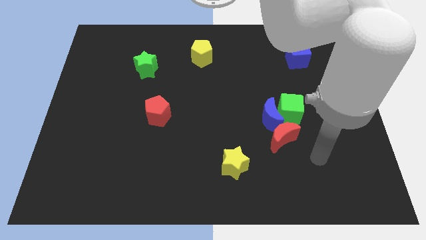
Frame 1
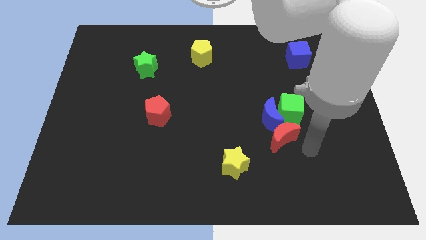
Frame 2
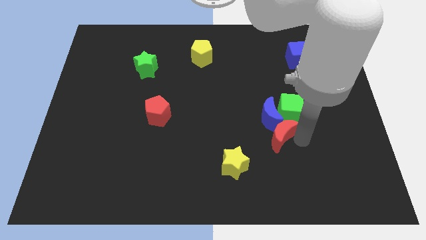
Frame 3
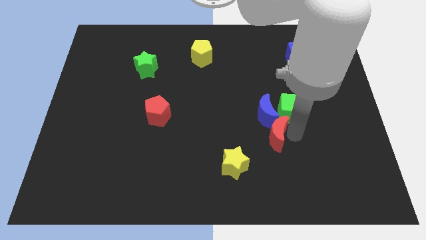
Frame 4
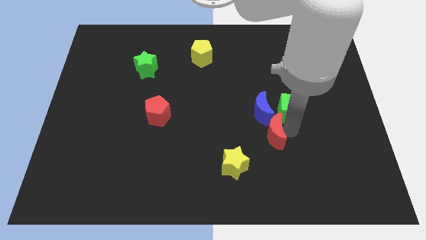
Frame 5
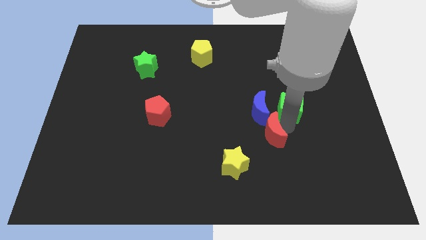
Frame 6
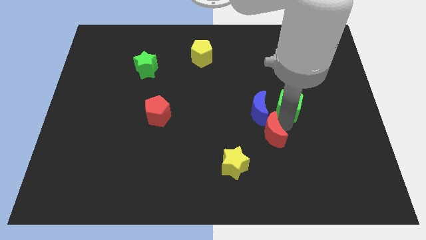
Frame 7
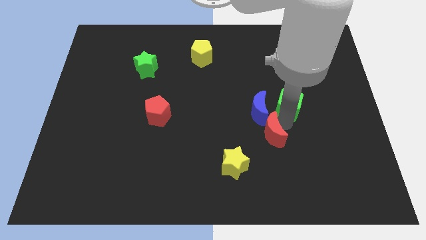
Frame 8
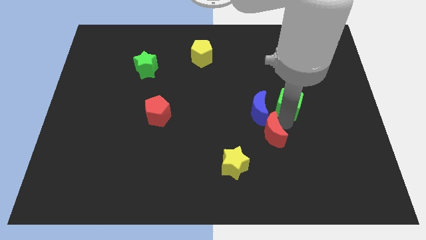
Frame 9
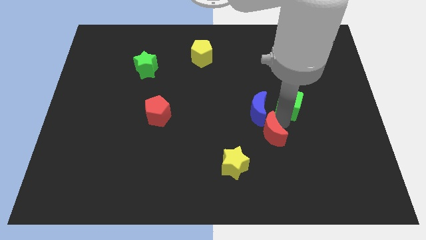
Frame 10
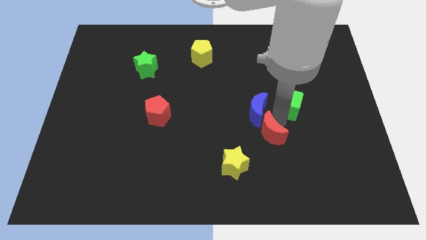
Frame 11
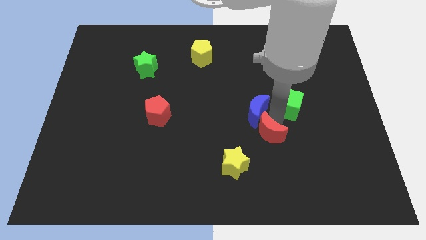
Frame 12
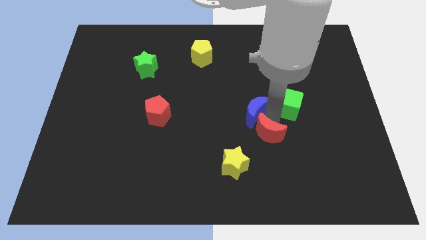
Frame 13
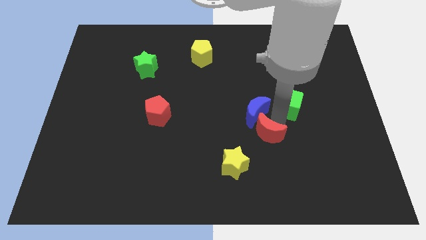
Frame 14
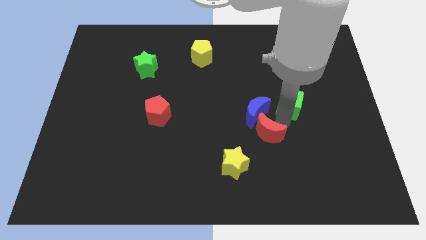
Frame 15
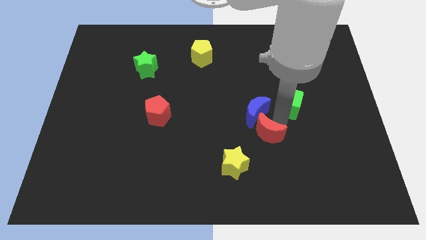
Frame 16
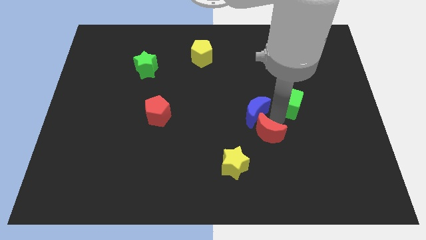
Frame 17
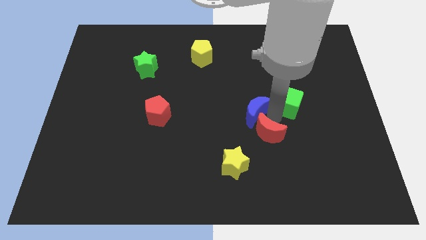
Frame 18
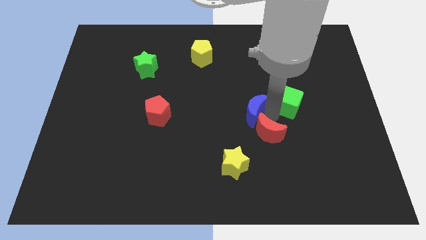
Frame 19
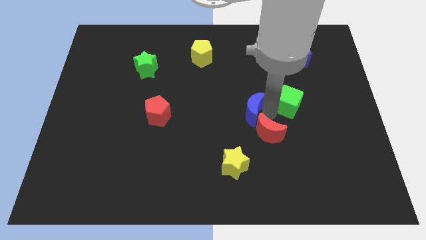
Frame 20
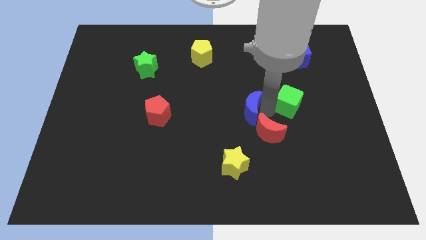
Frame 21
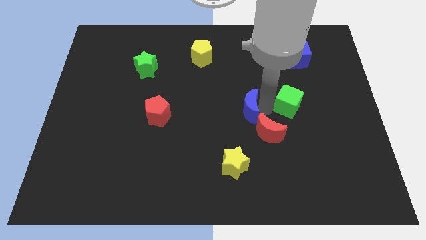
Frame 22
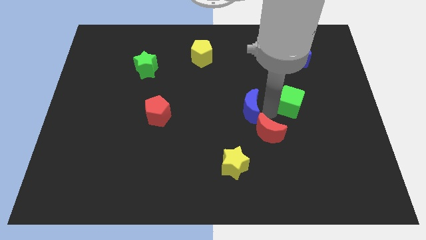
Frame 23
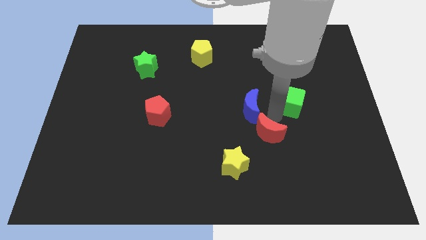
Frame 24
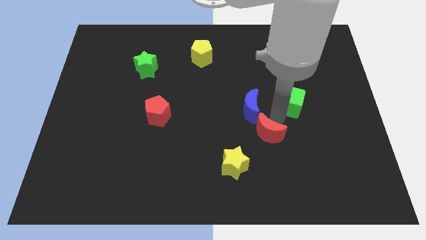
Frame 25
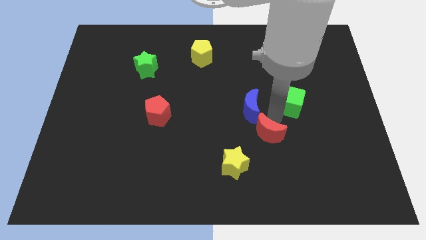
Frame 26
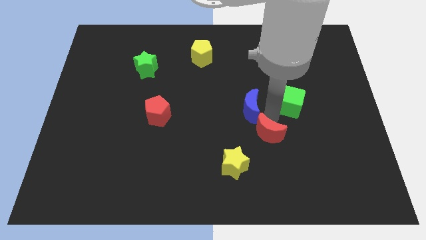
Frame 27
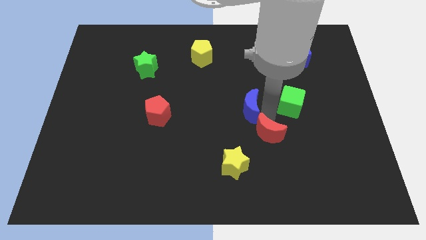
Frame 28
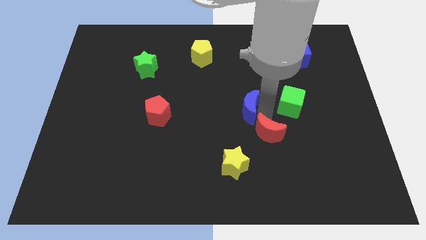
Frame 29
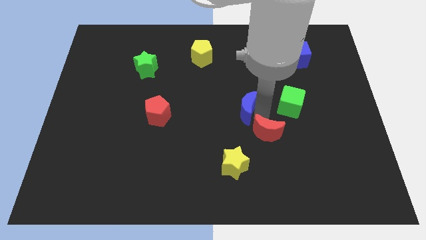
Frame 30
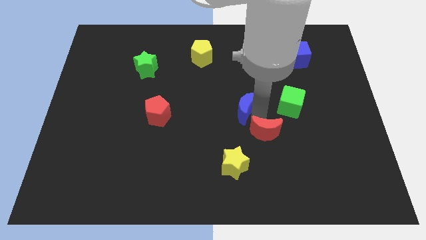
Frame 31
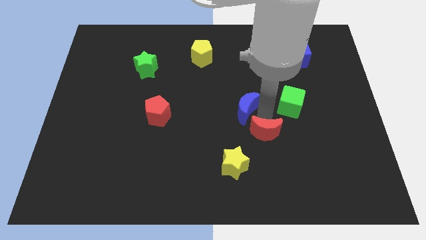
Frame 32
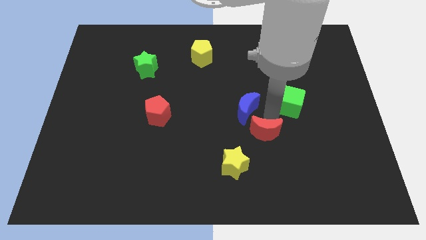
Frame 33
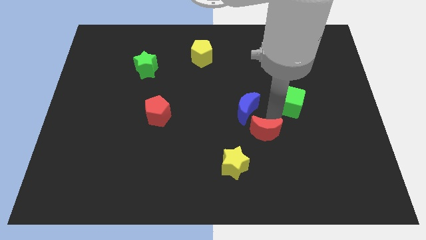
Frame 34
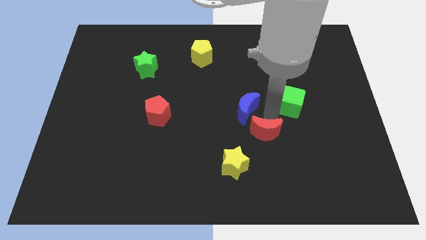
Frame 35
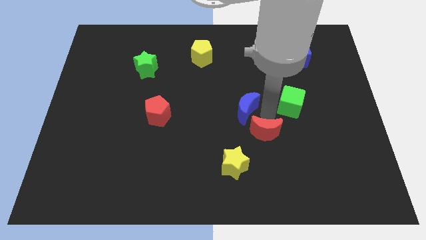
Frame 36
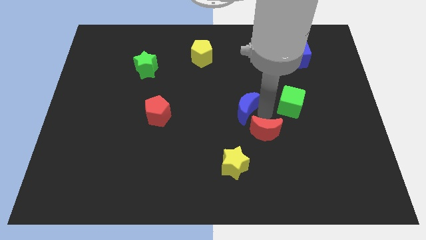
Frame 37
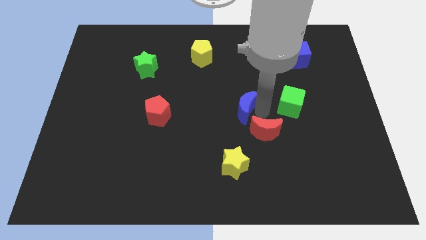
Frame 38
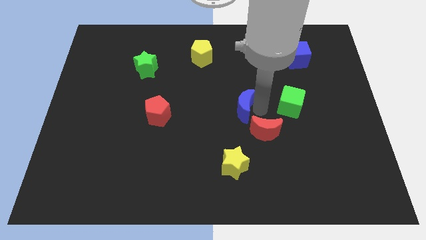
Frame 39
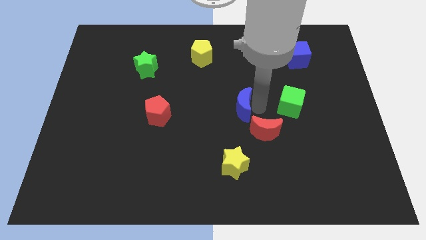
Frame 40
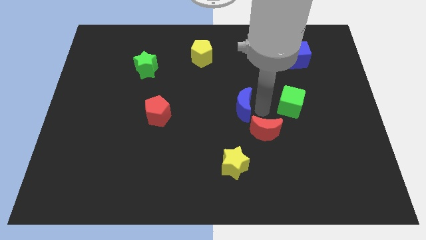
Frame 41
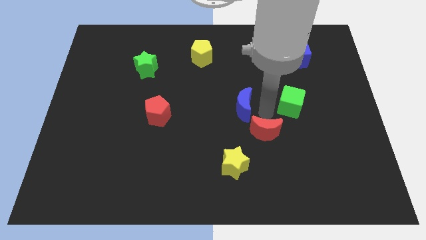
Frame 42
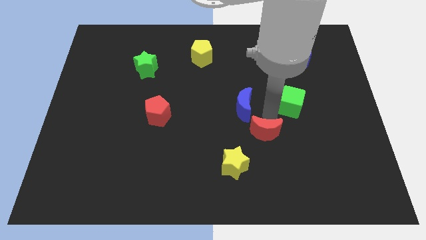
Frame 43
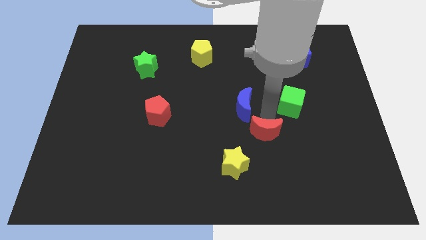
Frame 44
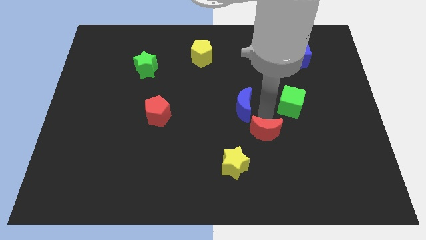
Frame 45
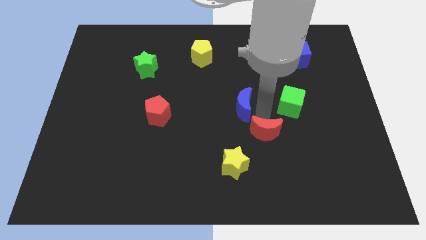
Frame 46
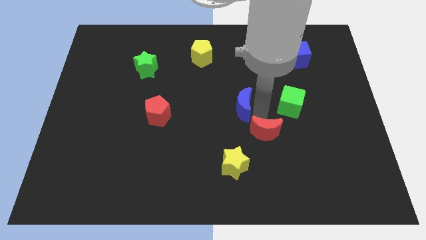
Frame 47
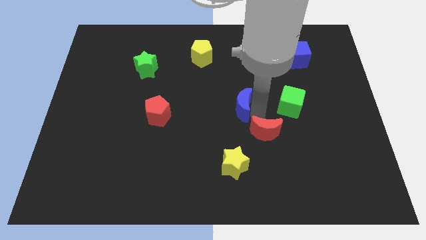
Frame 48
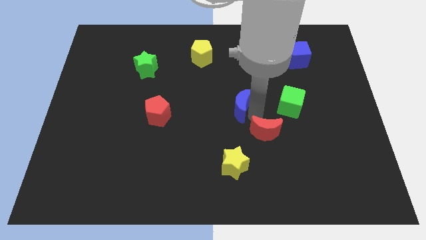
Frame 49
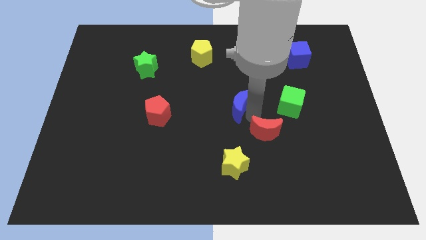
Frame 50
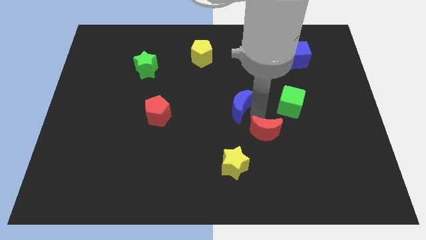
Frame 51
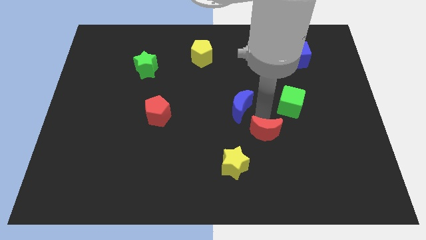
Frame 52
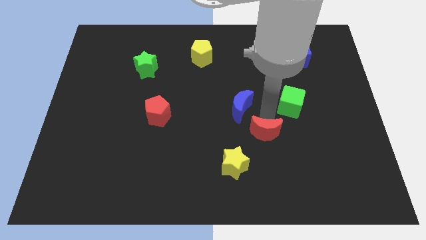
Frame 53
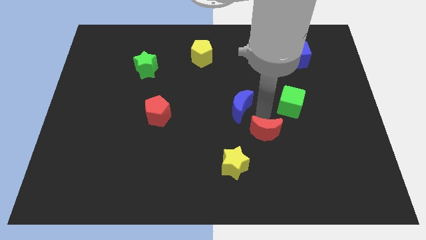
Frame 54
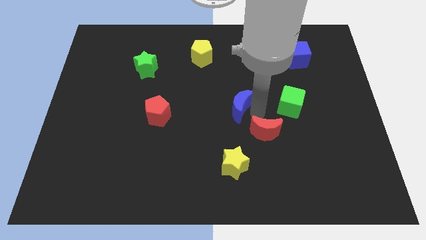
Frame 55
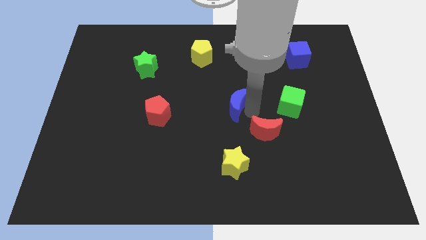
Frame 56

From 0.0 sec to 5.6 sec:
pull the blue moon apart from the green cube and red moon

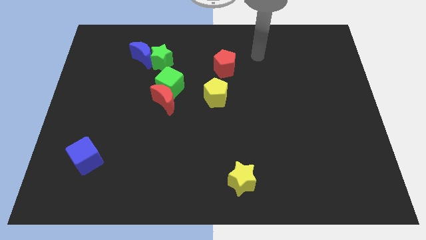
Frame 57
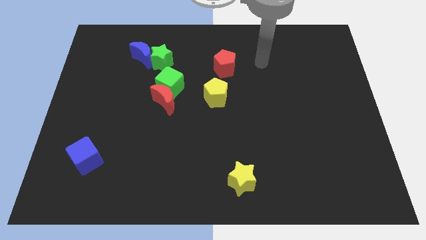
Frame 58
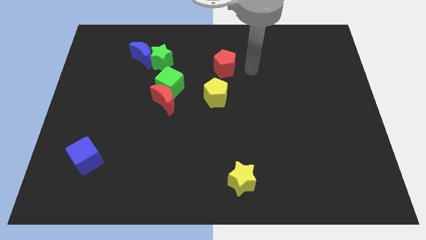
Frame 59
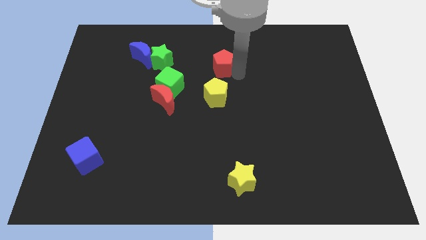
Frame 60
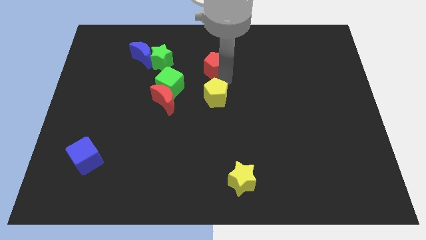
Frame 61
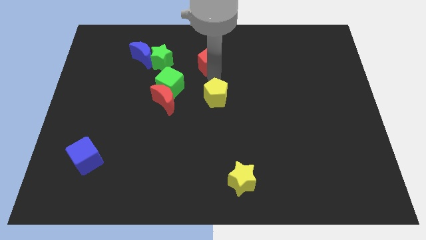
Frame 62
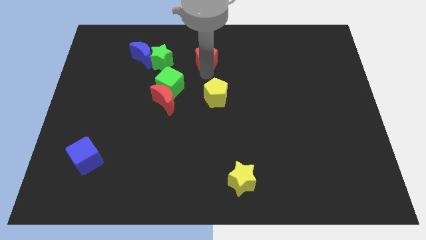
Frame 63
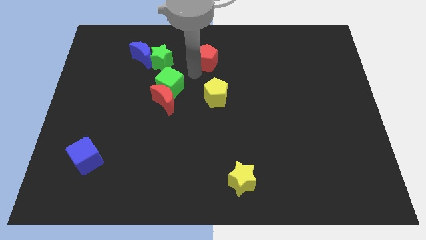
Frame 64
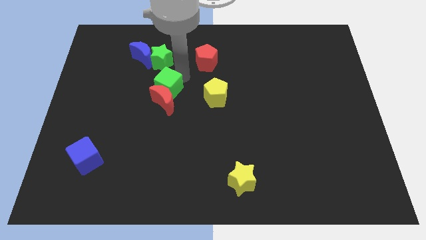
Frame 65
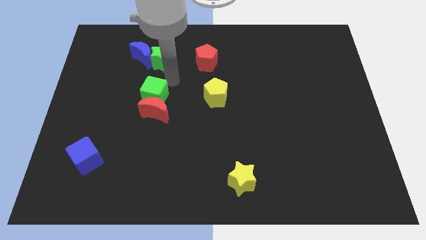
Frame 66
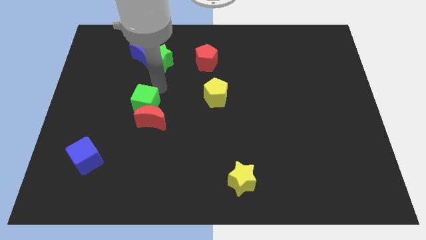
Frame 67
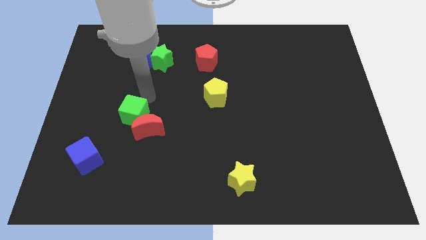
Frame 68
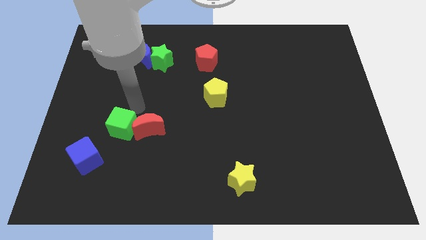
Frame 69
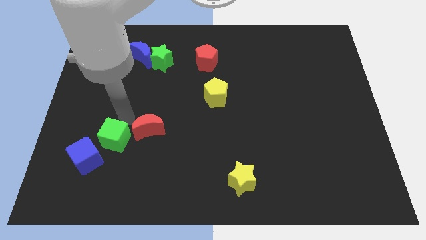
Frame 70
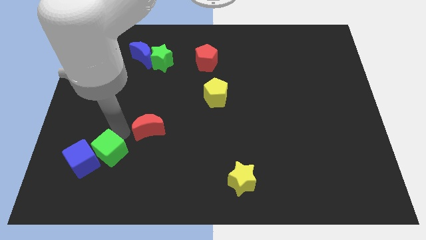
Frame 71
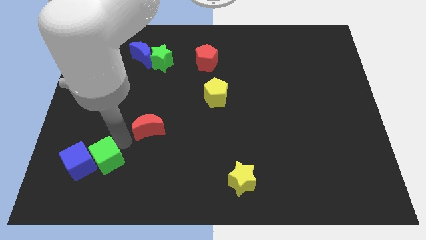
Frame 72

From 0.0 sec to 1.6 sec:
separate the red moon from the green cube

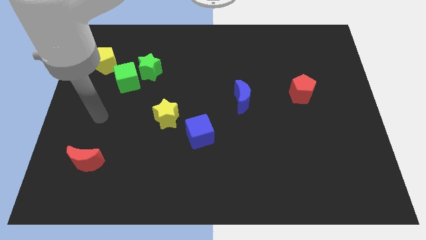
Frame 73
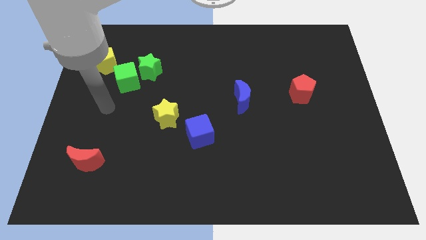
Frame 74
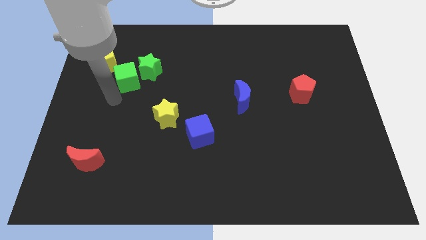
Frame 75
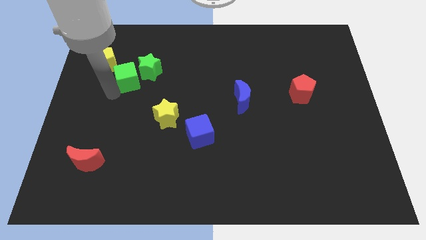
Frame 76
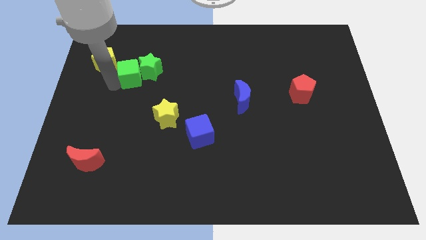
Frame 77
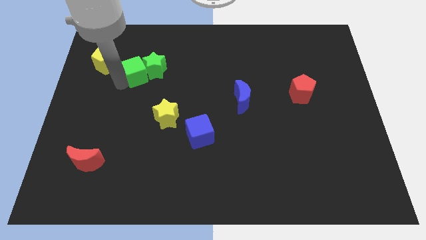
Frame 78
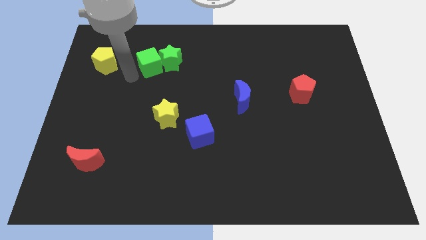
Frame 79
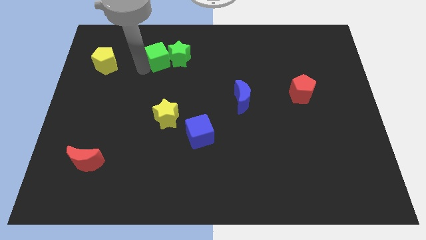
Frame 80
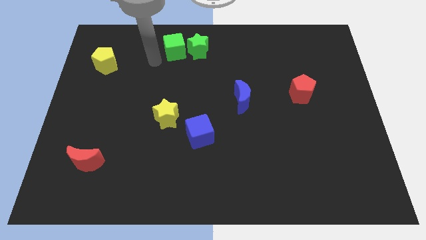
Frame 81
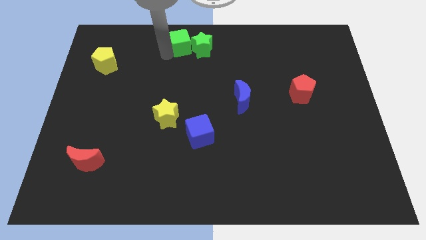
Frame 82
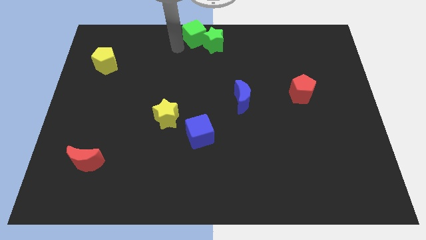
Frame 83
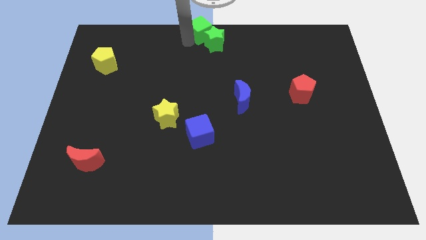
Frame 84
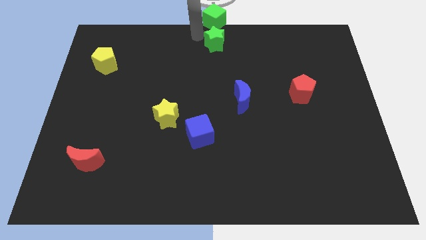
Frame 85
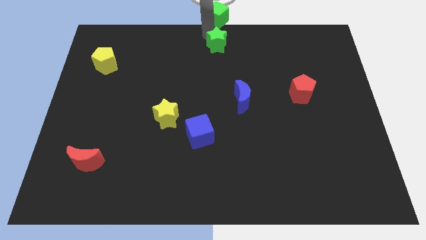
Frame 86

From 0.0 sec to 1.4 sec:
pull the green star apart from the green cube

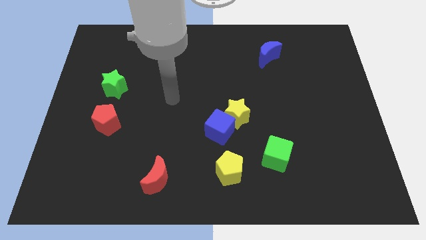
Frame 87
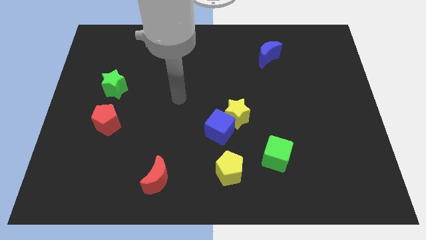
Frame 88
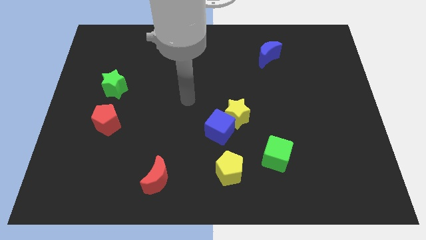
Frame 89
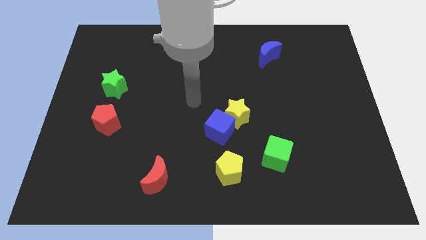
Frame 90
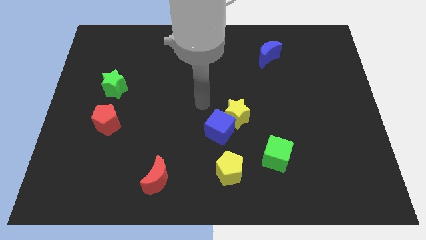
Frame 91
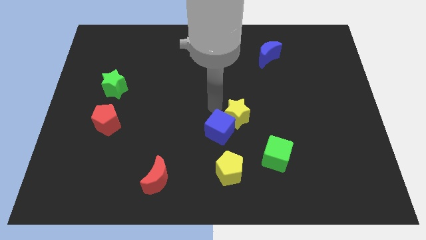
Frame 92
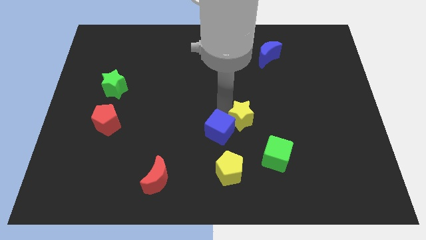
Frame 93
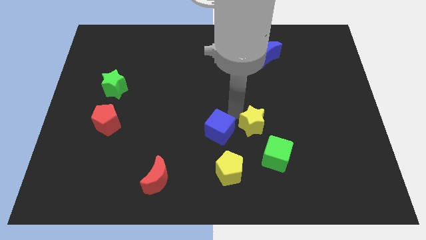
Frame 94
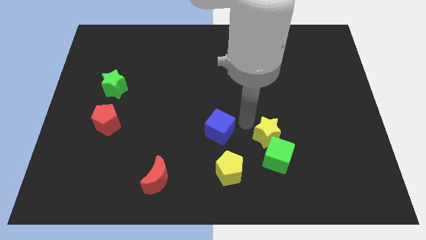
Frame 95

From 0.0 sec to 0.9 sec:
pull the blue cube apart from the yellow star
